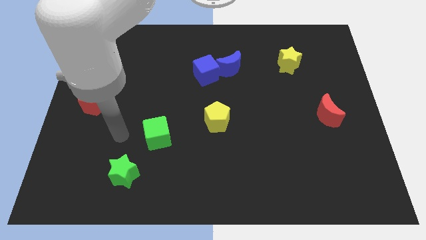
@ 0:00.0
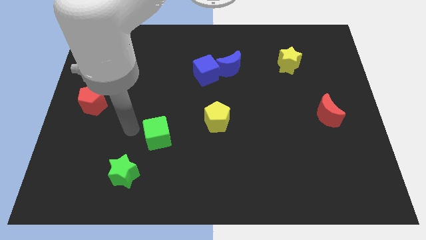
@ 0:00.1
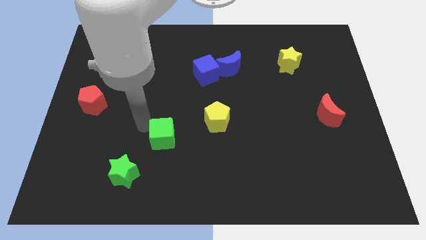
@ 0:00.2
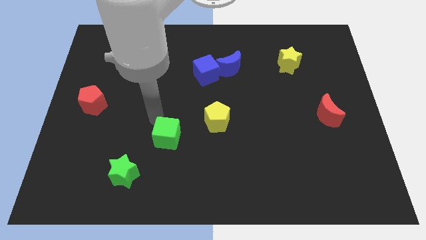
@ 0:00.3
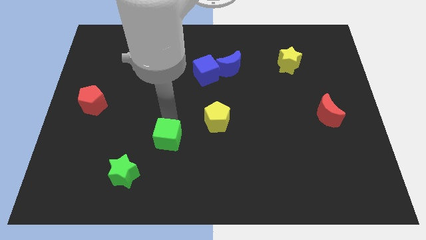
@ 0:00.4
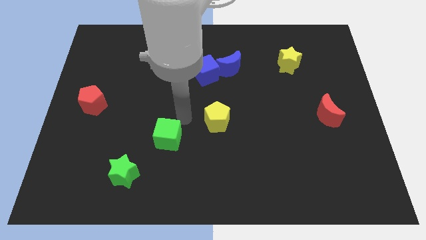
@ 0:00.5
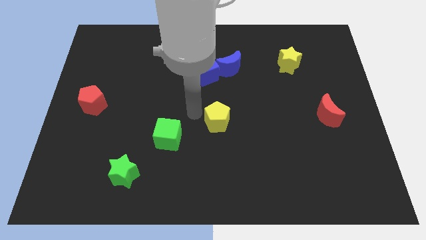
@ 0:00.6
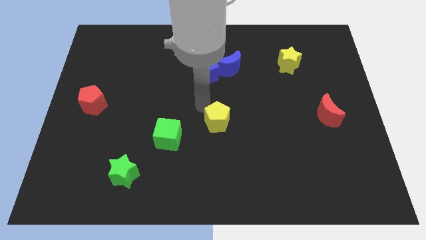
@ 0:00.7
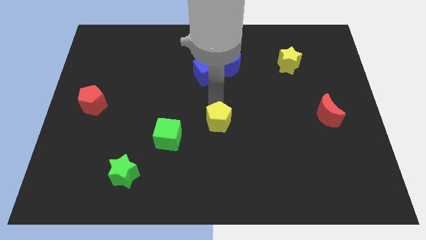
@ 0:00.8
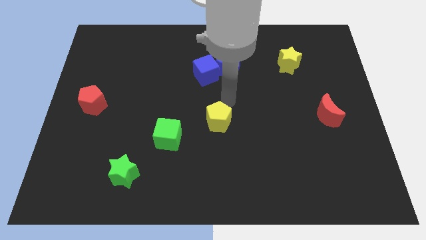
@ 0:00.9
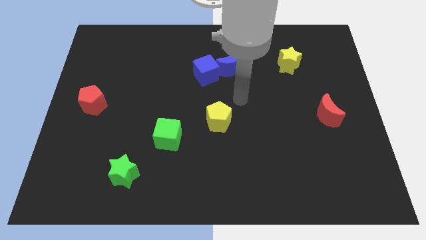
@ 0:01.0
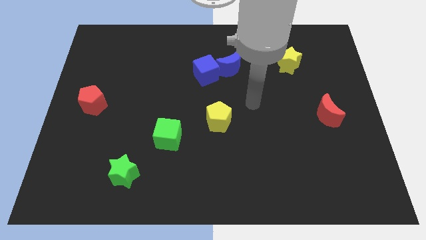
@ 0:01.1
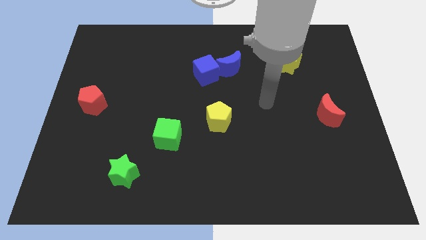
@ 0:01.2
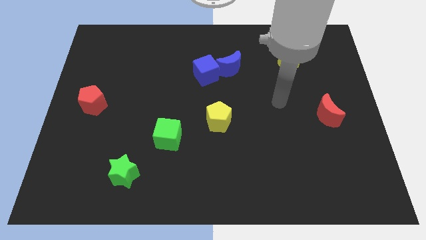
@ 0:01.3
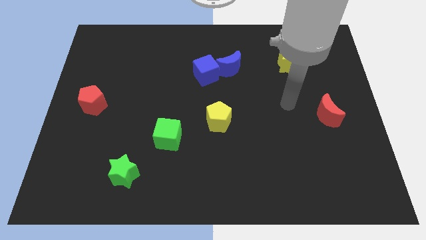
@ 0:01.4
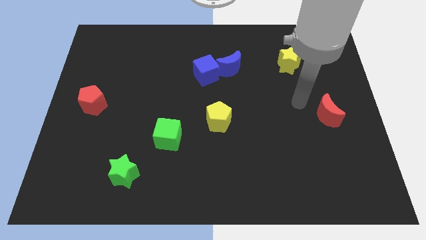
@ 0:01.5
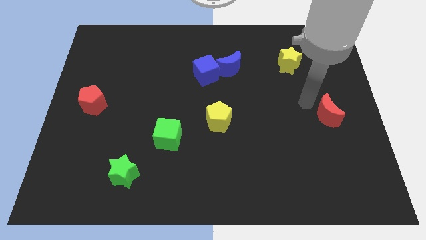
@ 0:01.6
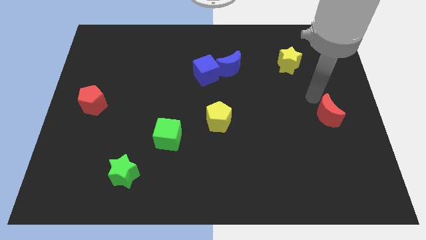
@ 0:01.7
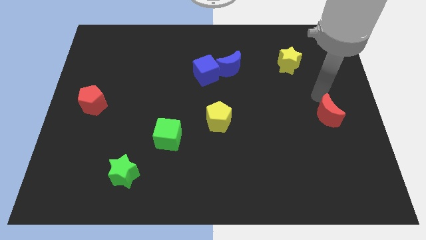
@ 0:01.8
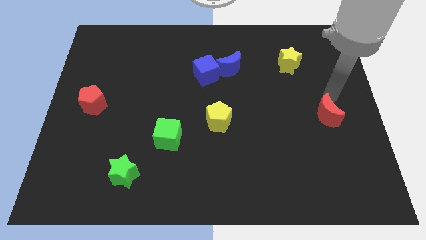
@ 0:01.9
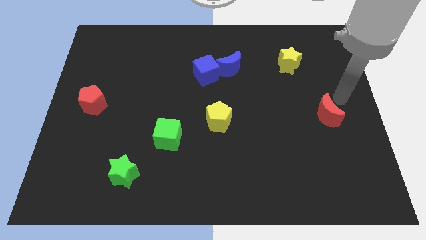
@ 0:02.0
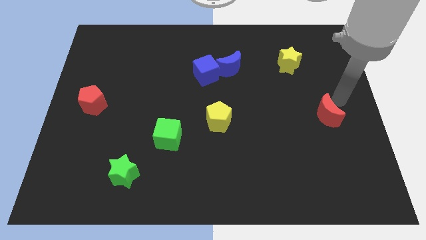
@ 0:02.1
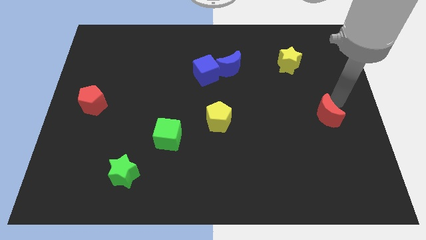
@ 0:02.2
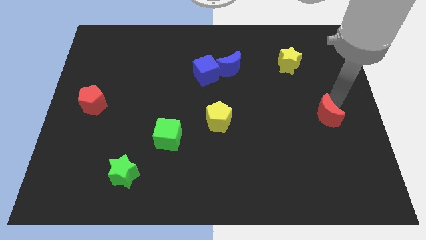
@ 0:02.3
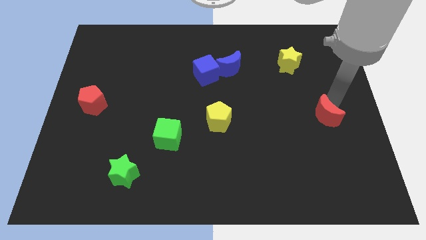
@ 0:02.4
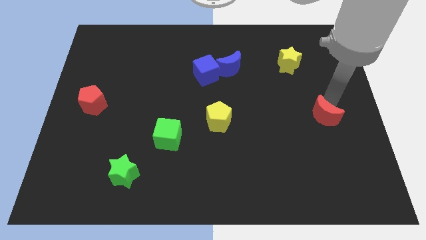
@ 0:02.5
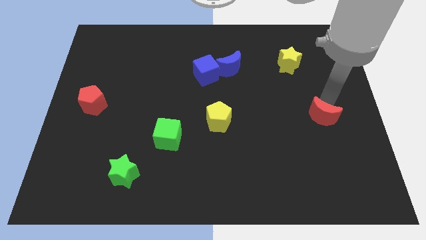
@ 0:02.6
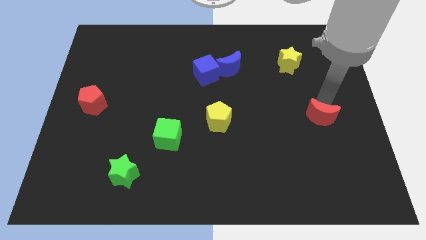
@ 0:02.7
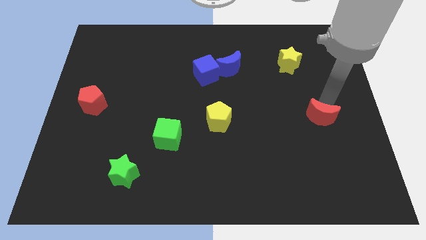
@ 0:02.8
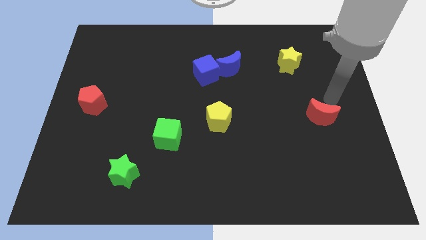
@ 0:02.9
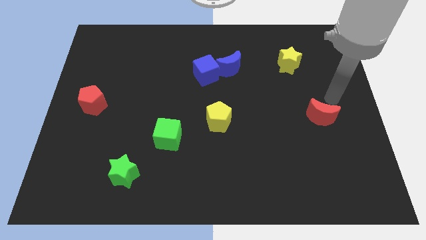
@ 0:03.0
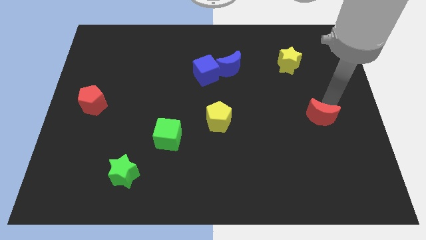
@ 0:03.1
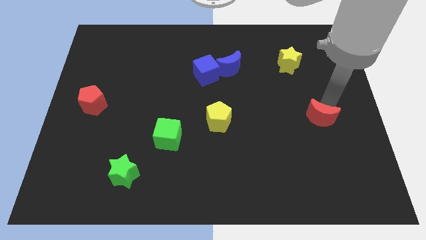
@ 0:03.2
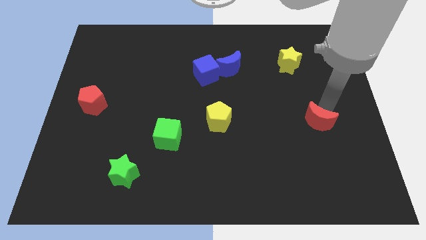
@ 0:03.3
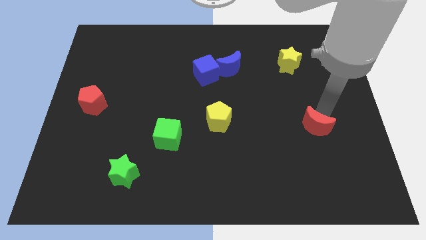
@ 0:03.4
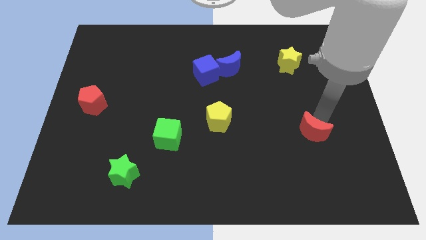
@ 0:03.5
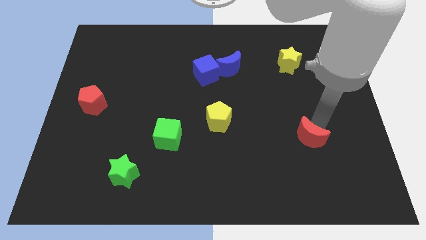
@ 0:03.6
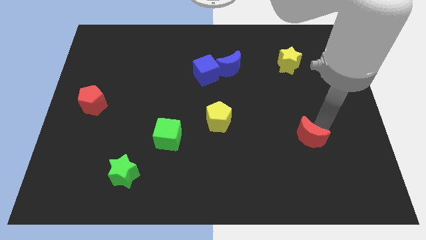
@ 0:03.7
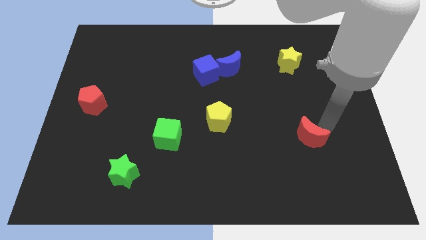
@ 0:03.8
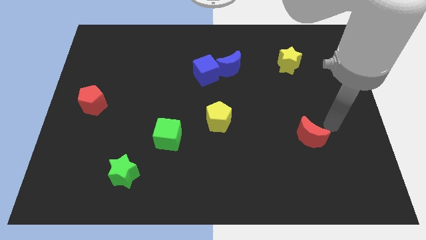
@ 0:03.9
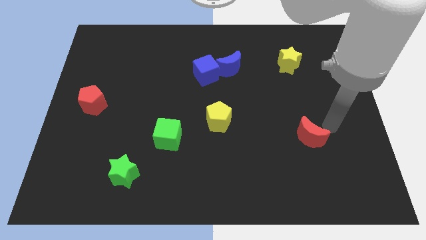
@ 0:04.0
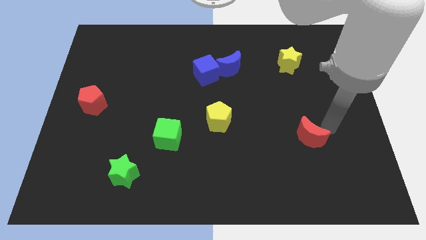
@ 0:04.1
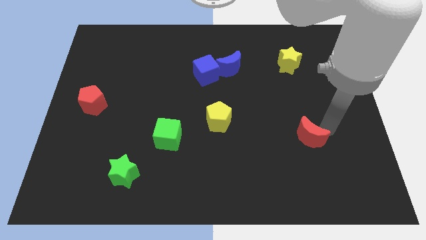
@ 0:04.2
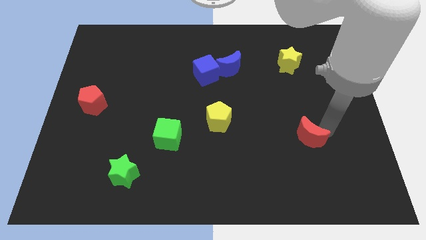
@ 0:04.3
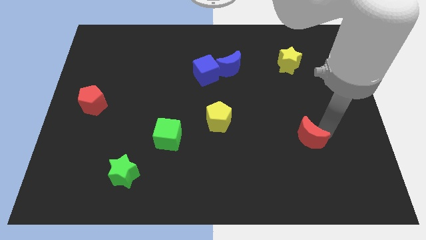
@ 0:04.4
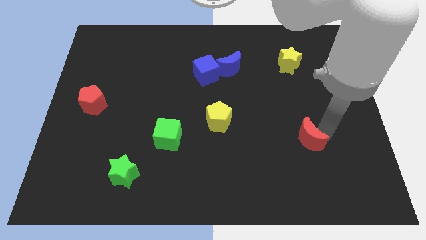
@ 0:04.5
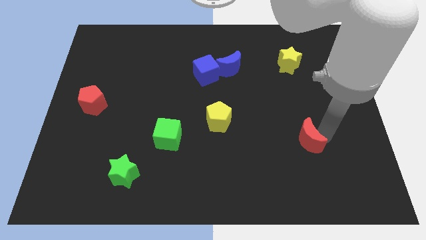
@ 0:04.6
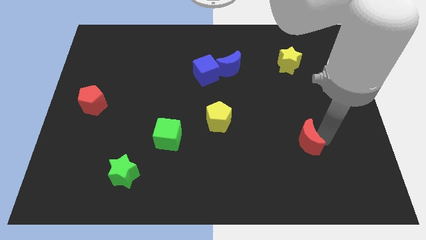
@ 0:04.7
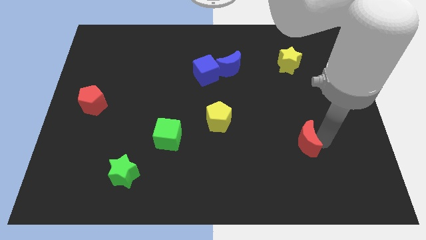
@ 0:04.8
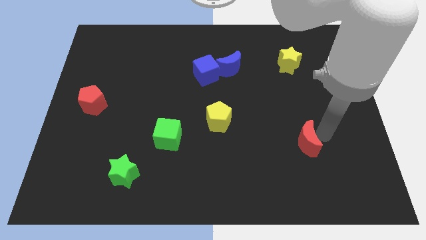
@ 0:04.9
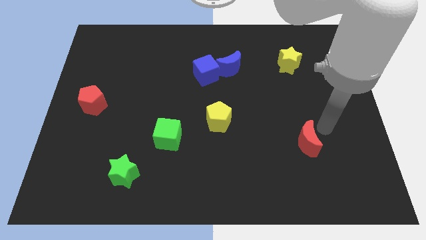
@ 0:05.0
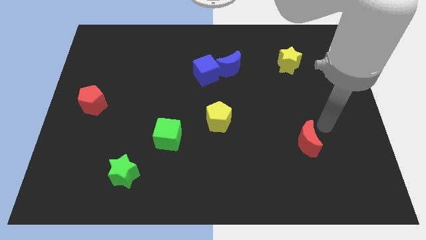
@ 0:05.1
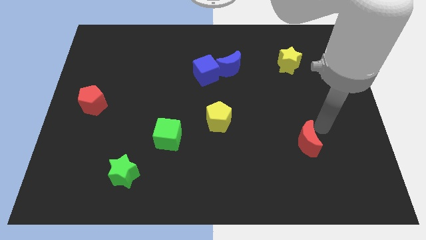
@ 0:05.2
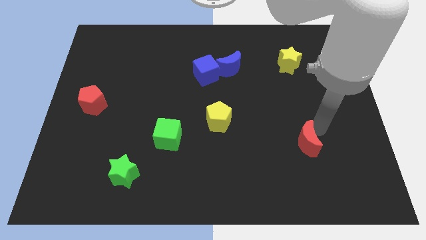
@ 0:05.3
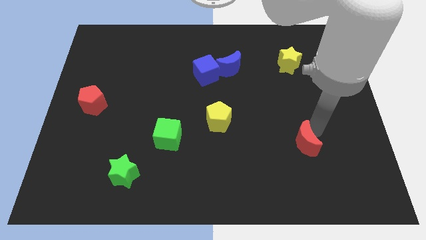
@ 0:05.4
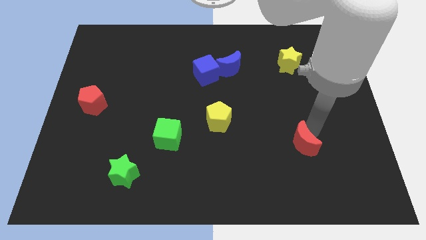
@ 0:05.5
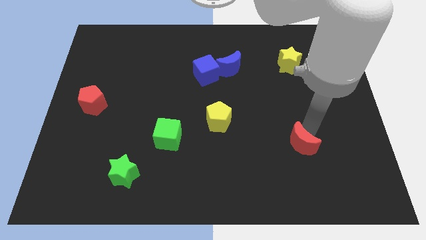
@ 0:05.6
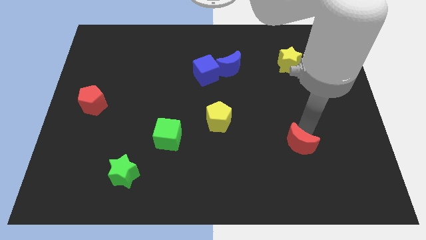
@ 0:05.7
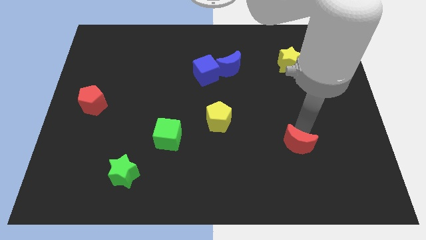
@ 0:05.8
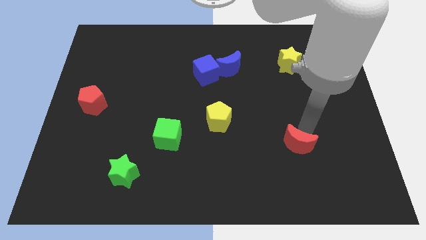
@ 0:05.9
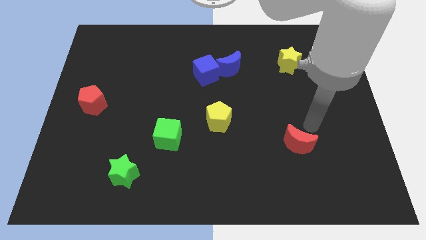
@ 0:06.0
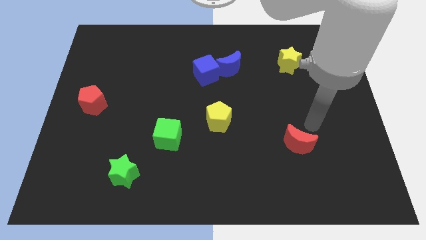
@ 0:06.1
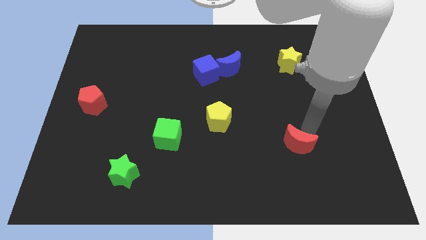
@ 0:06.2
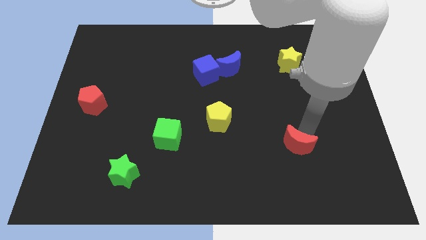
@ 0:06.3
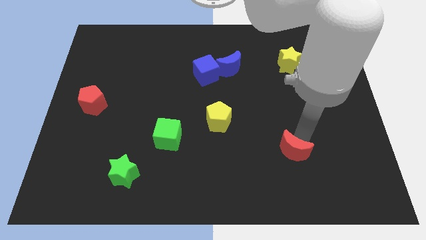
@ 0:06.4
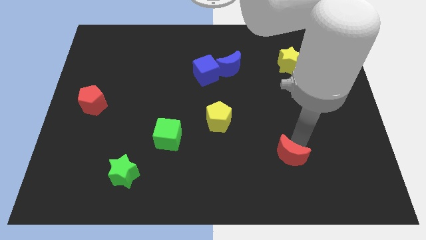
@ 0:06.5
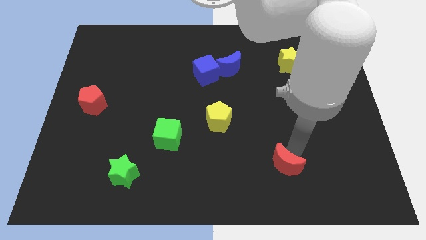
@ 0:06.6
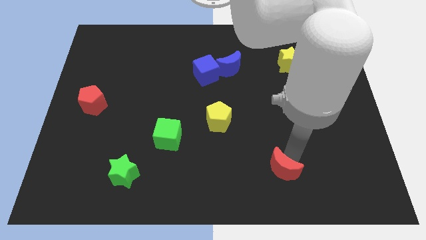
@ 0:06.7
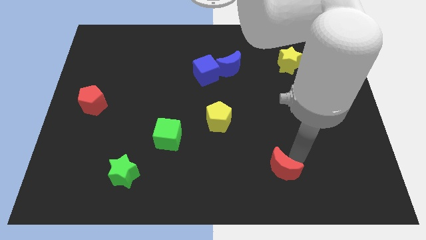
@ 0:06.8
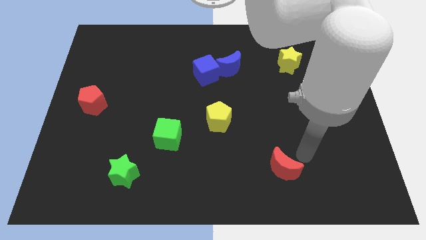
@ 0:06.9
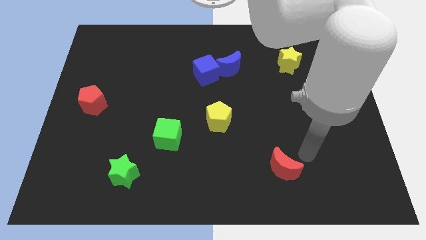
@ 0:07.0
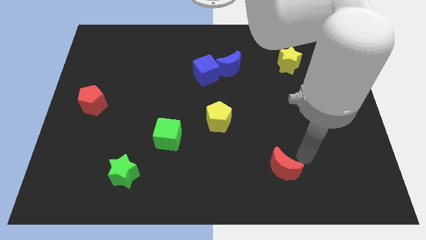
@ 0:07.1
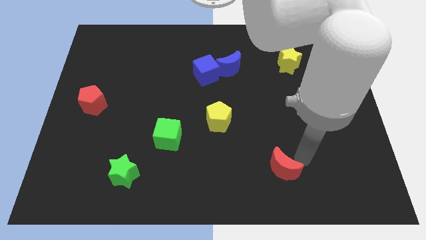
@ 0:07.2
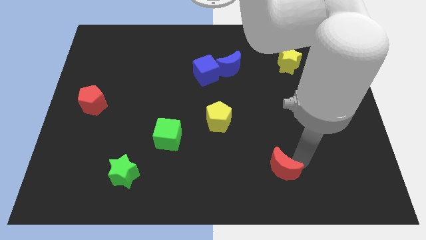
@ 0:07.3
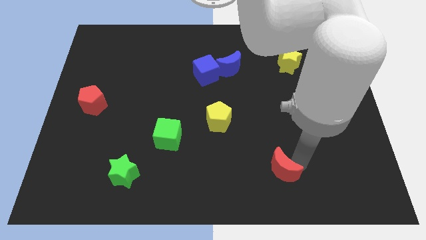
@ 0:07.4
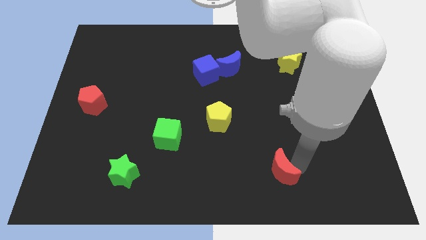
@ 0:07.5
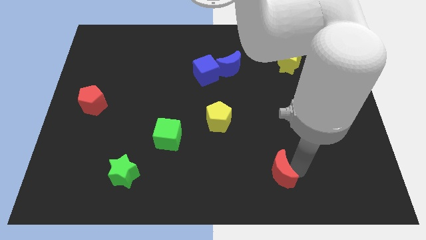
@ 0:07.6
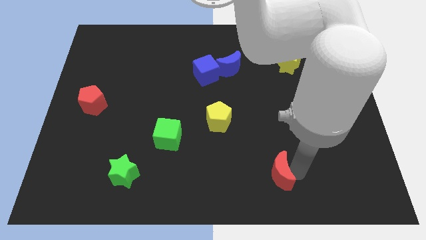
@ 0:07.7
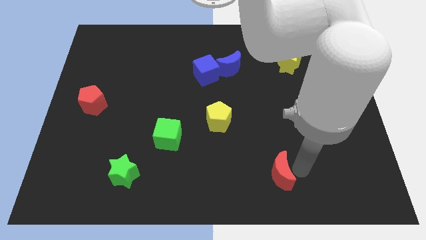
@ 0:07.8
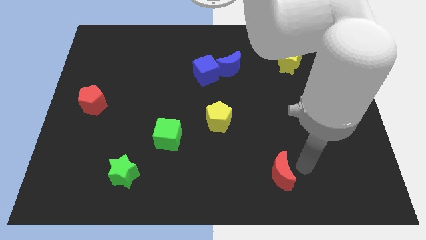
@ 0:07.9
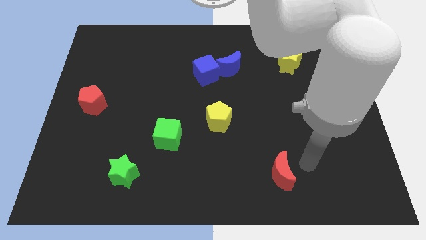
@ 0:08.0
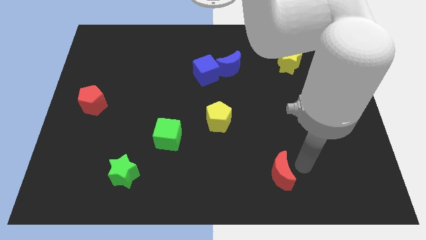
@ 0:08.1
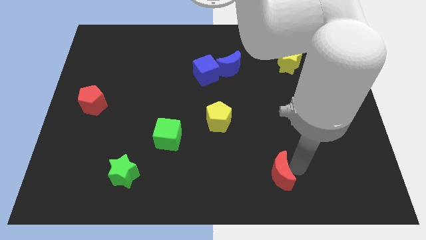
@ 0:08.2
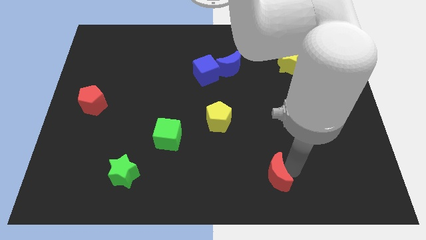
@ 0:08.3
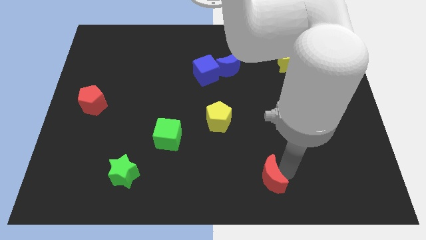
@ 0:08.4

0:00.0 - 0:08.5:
slide the red moon to the bottom side
